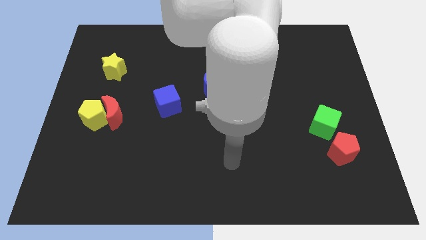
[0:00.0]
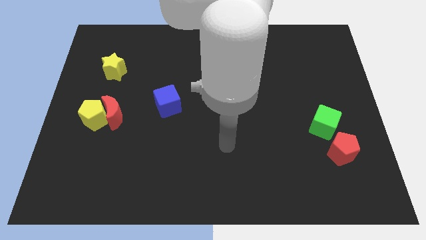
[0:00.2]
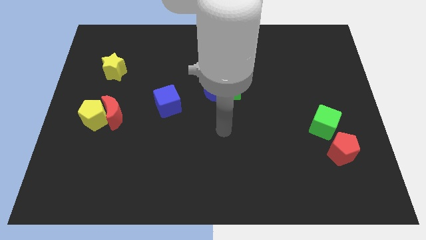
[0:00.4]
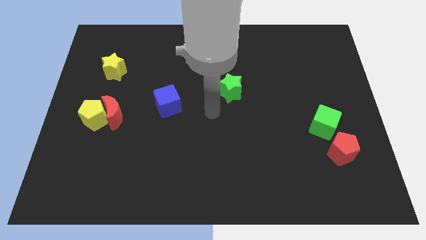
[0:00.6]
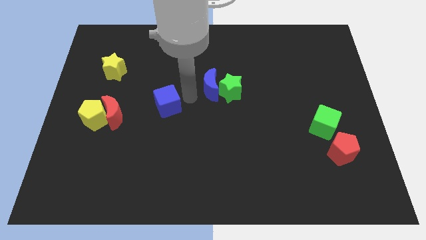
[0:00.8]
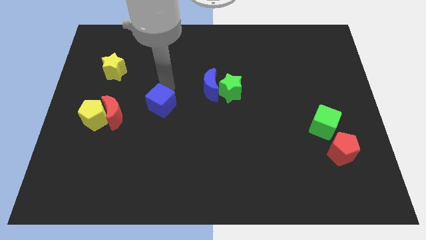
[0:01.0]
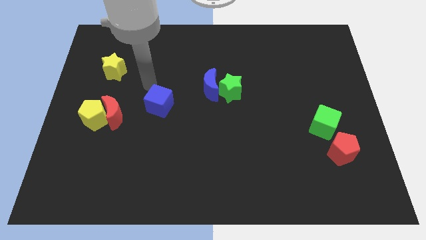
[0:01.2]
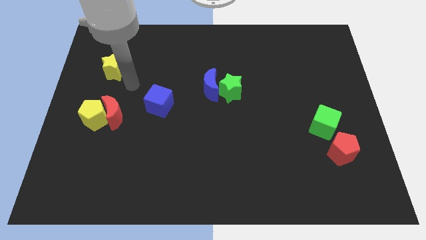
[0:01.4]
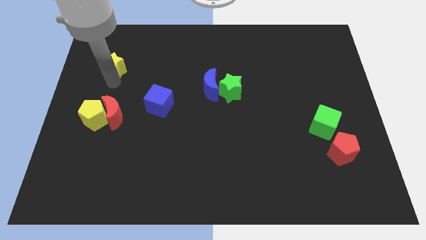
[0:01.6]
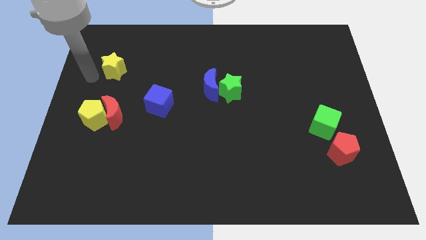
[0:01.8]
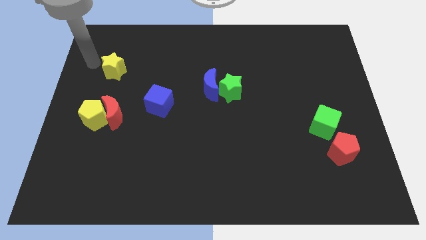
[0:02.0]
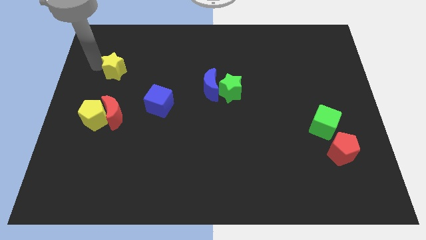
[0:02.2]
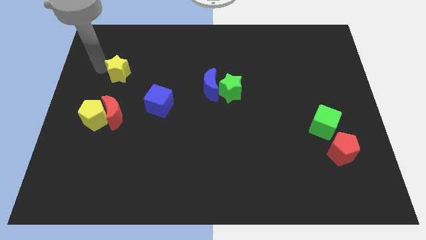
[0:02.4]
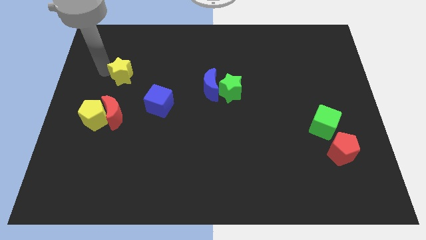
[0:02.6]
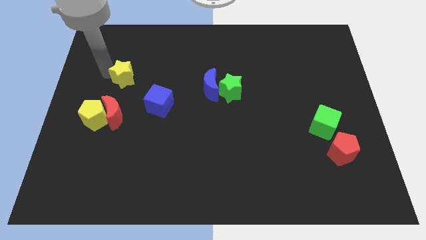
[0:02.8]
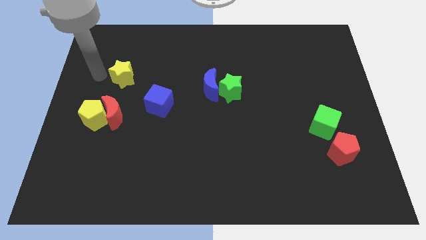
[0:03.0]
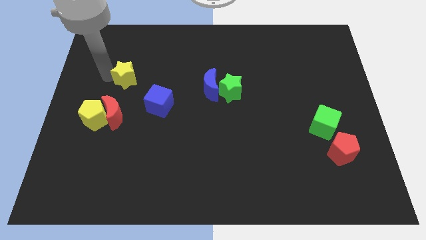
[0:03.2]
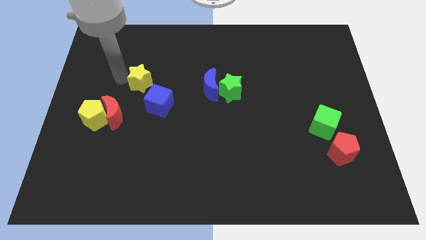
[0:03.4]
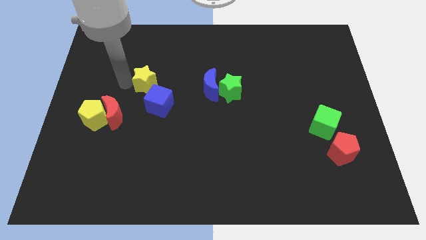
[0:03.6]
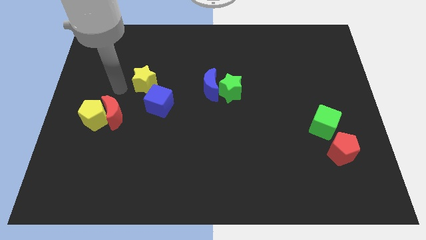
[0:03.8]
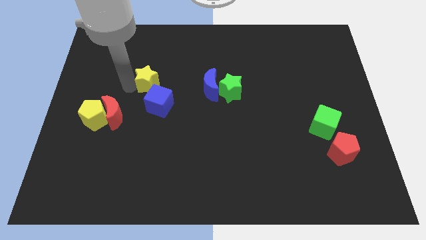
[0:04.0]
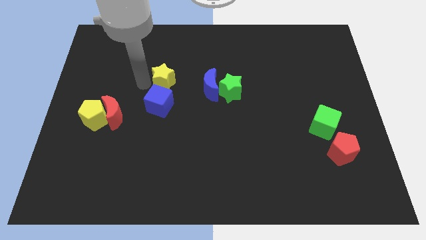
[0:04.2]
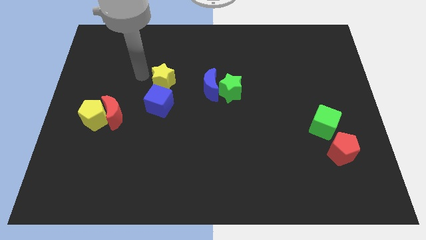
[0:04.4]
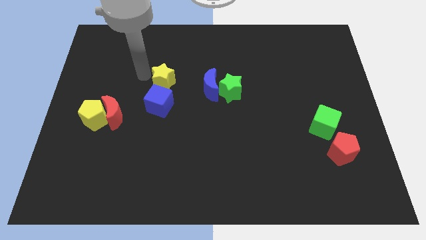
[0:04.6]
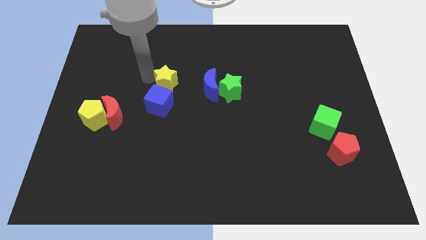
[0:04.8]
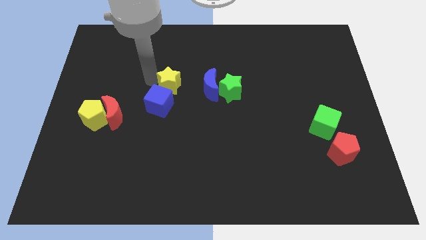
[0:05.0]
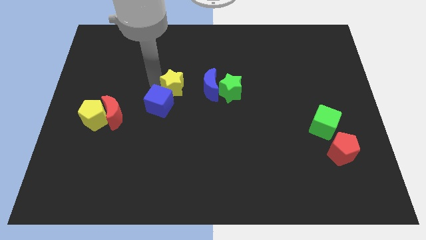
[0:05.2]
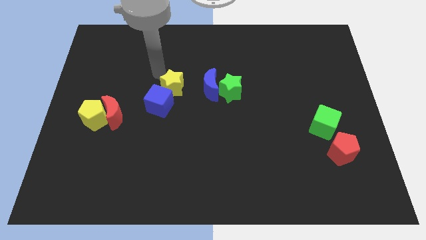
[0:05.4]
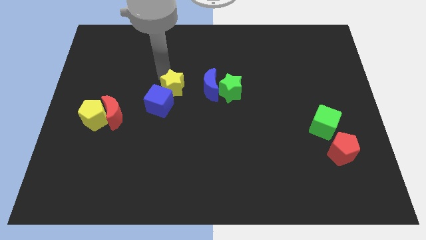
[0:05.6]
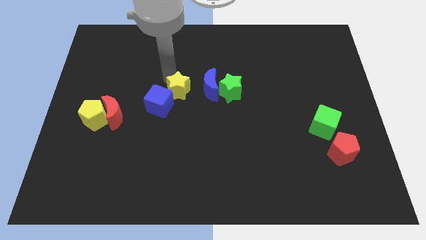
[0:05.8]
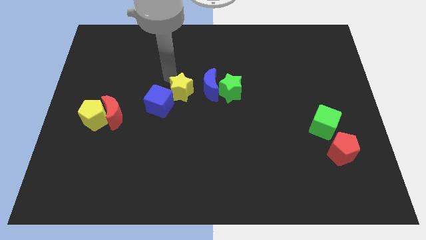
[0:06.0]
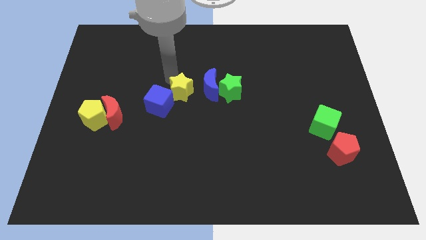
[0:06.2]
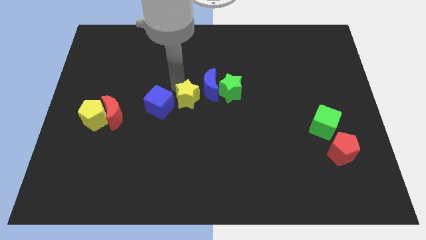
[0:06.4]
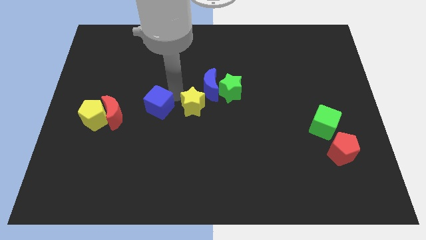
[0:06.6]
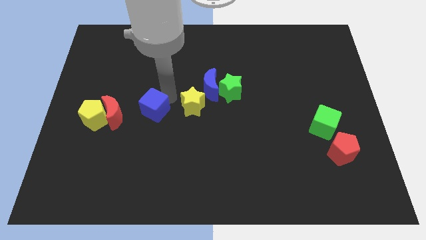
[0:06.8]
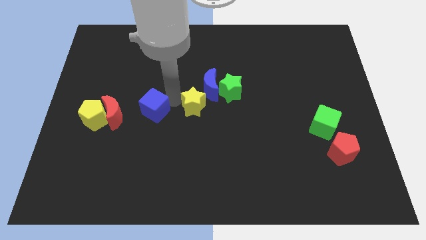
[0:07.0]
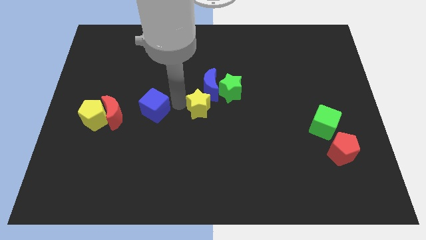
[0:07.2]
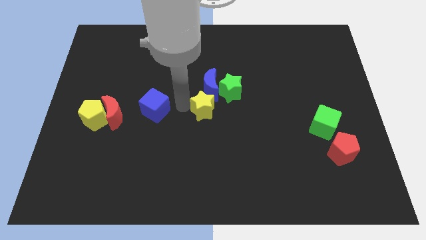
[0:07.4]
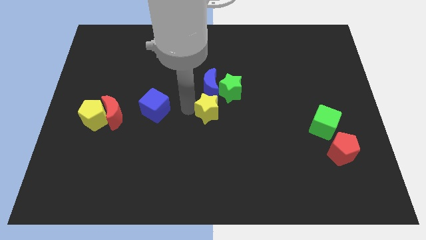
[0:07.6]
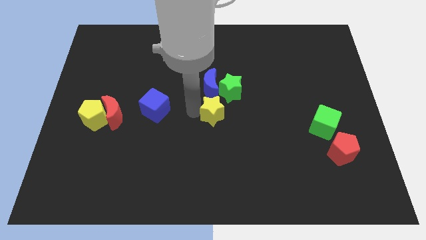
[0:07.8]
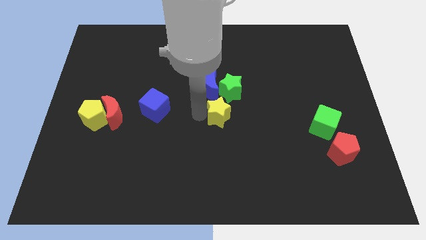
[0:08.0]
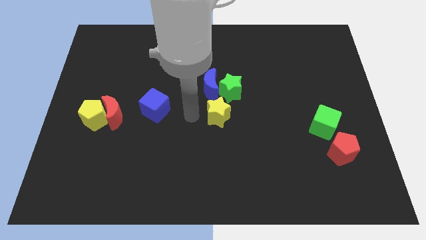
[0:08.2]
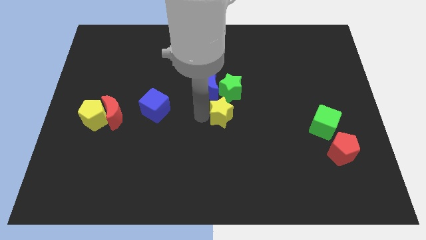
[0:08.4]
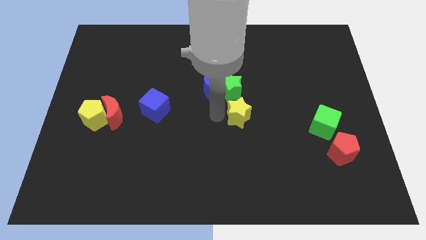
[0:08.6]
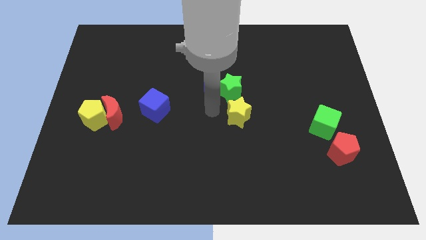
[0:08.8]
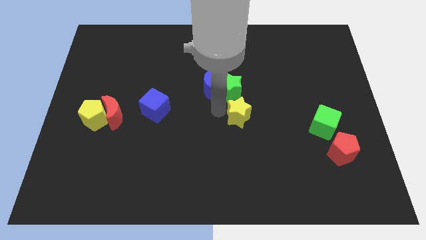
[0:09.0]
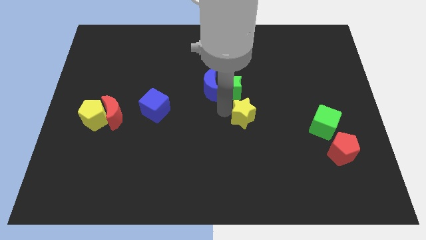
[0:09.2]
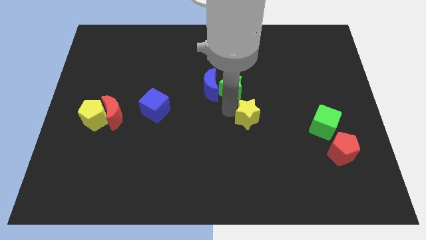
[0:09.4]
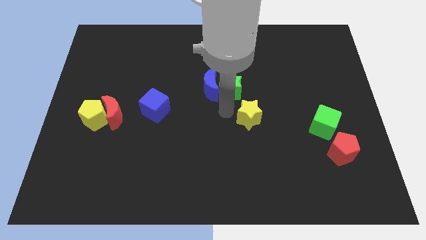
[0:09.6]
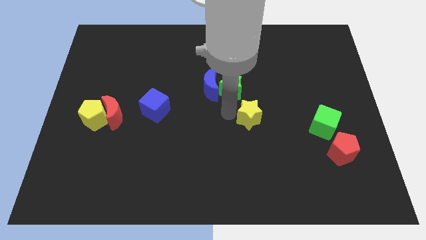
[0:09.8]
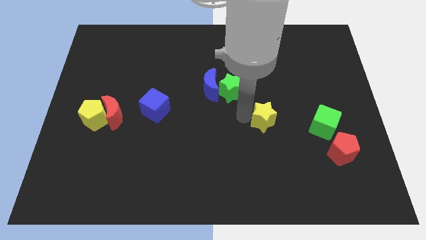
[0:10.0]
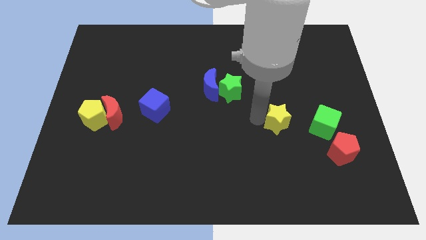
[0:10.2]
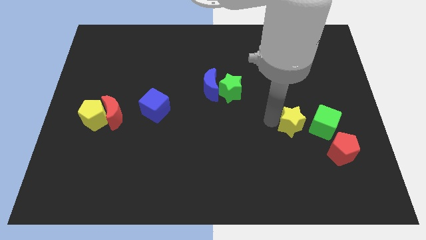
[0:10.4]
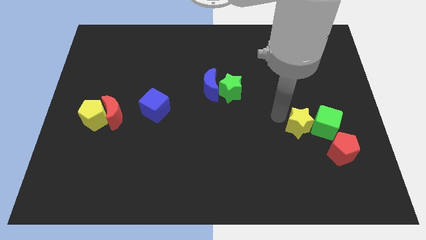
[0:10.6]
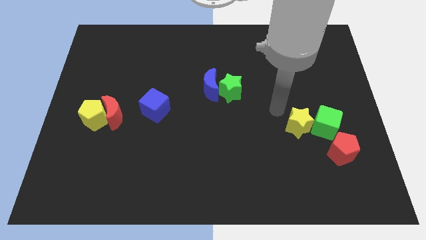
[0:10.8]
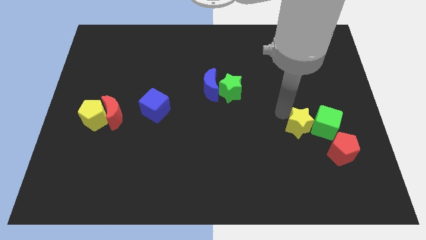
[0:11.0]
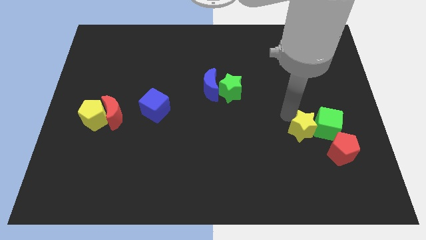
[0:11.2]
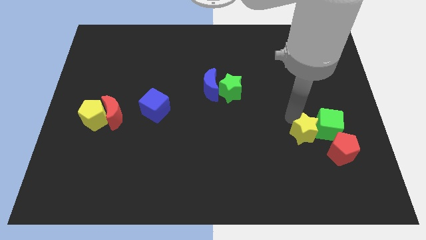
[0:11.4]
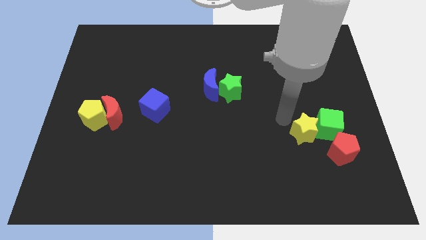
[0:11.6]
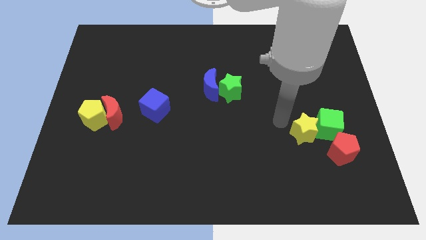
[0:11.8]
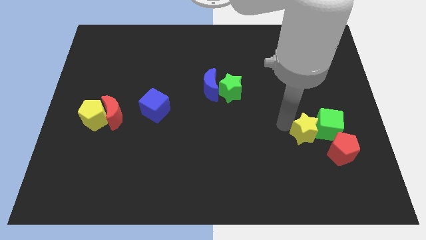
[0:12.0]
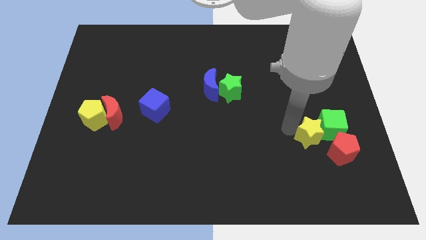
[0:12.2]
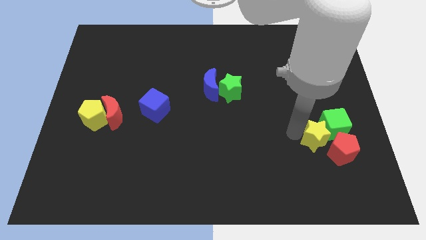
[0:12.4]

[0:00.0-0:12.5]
put the yellow star towards the red pentagon

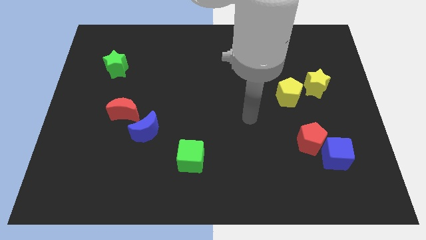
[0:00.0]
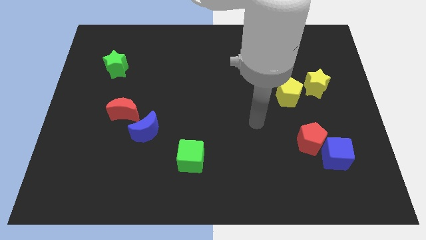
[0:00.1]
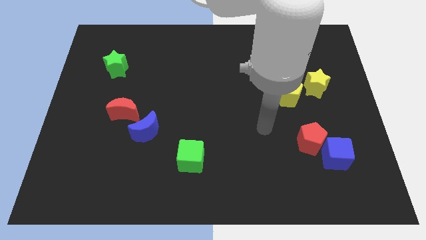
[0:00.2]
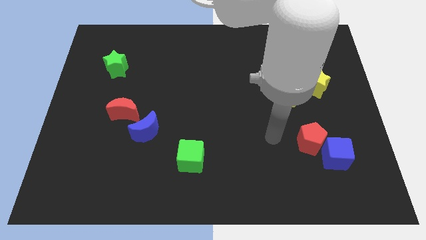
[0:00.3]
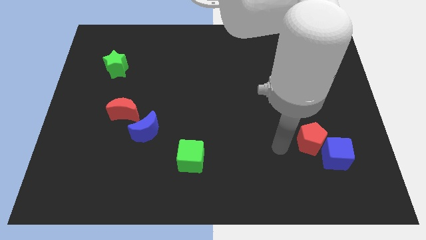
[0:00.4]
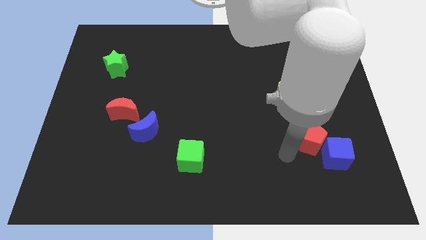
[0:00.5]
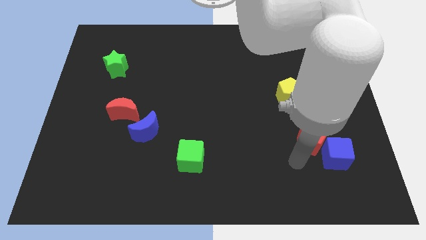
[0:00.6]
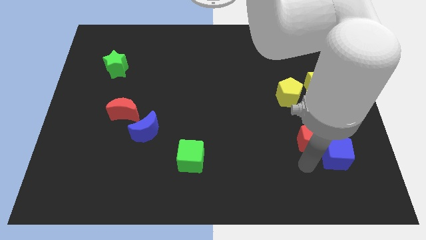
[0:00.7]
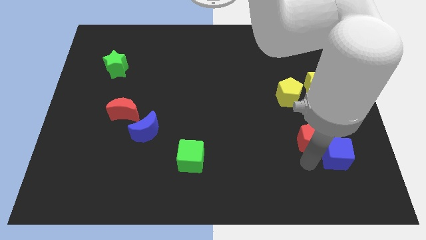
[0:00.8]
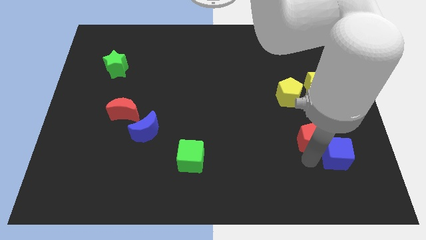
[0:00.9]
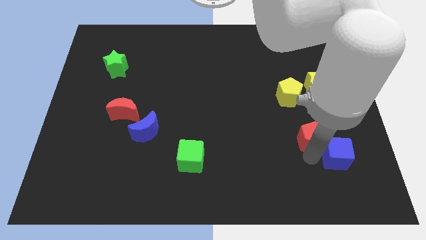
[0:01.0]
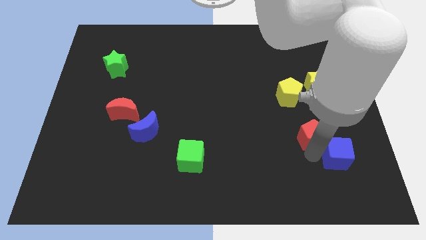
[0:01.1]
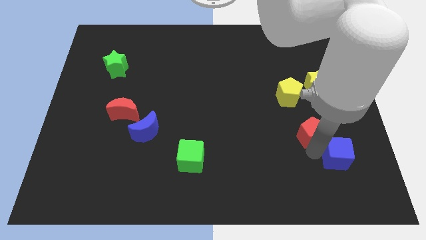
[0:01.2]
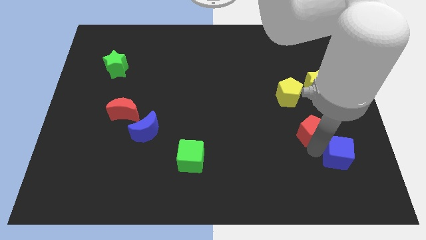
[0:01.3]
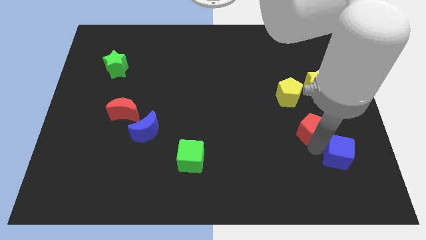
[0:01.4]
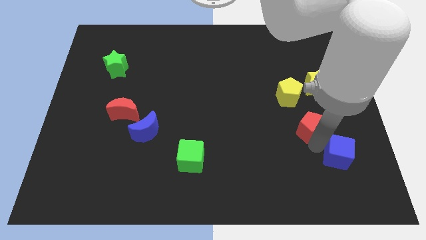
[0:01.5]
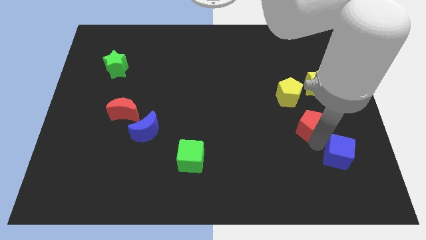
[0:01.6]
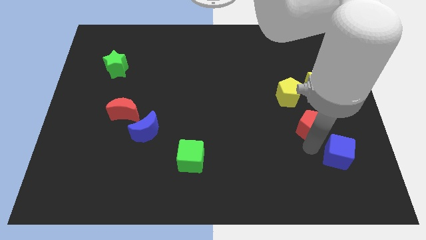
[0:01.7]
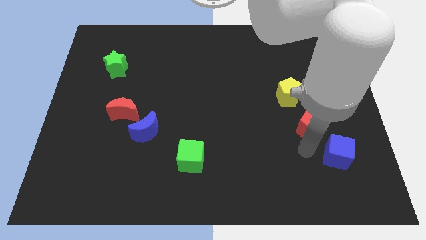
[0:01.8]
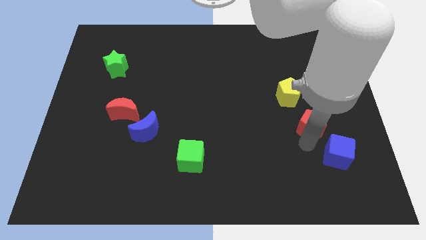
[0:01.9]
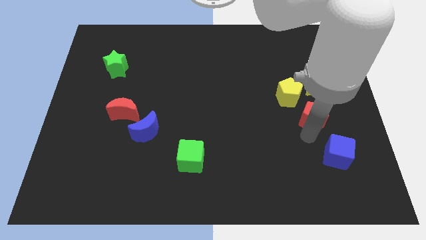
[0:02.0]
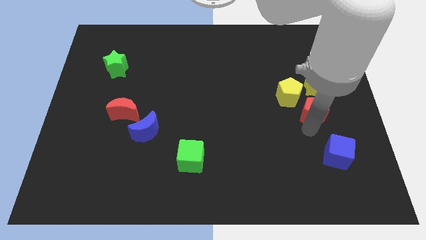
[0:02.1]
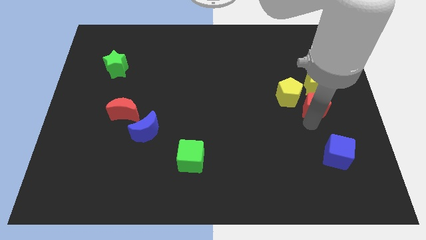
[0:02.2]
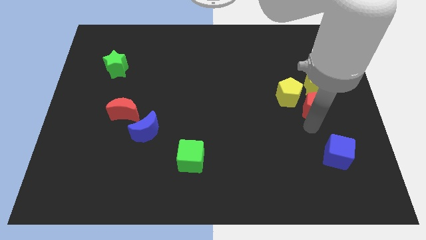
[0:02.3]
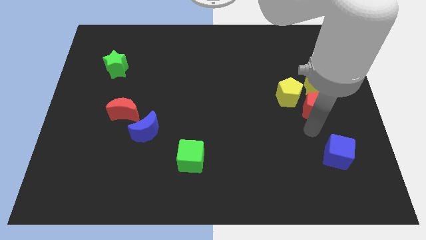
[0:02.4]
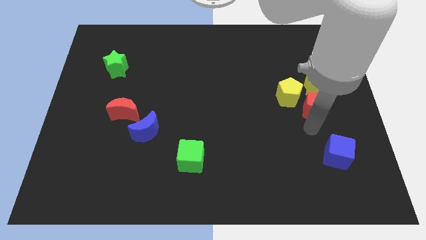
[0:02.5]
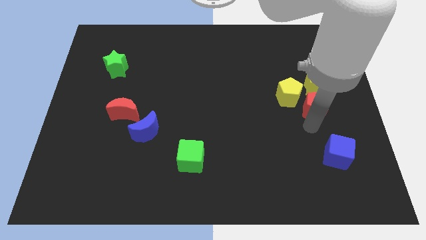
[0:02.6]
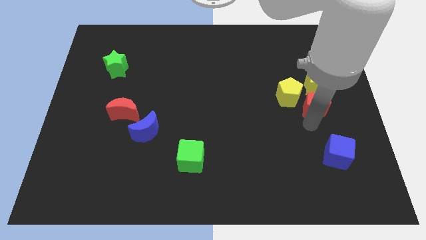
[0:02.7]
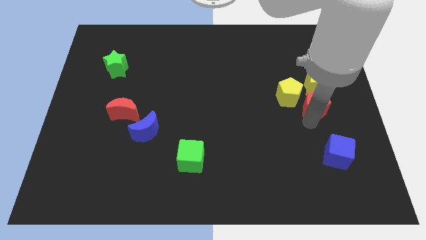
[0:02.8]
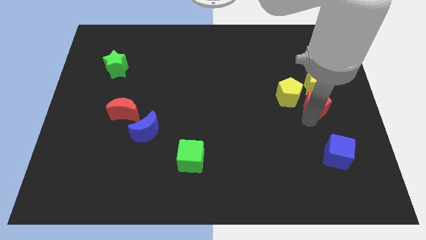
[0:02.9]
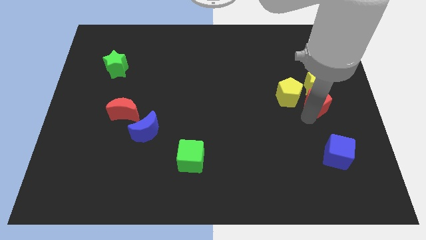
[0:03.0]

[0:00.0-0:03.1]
move the red pentagon close to the yellow star
